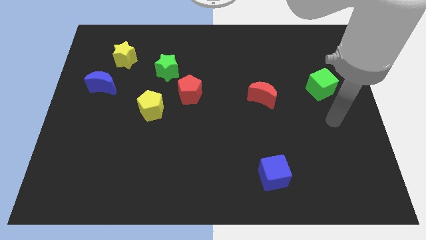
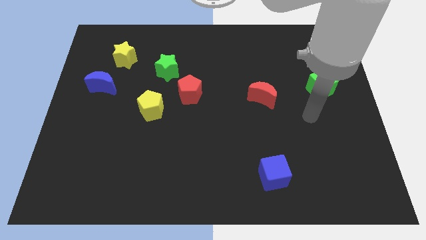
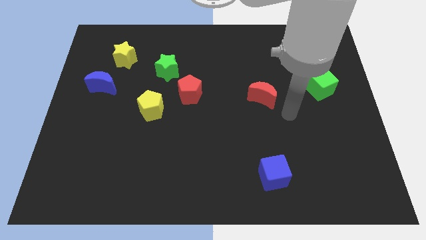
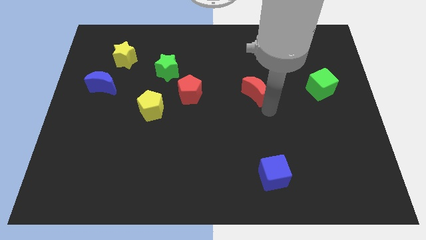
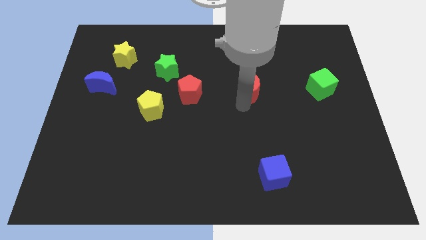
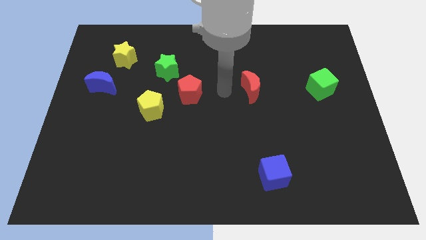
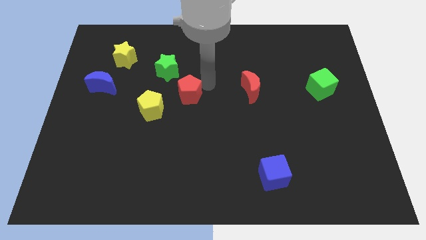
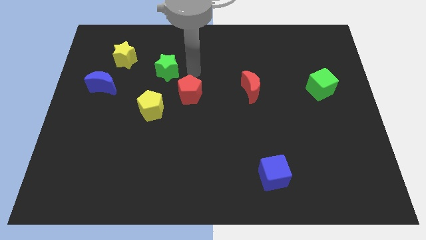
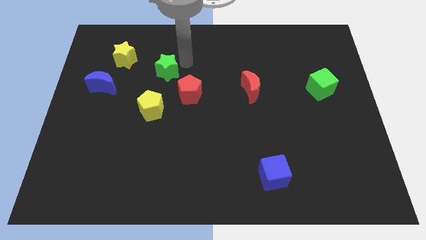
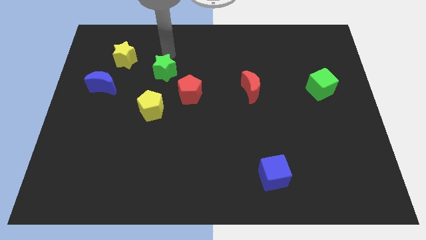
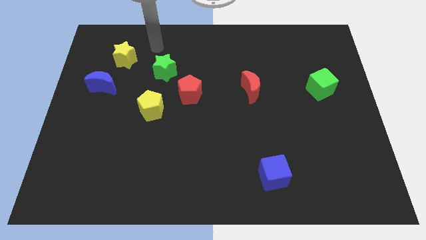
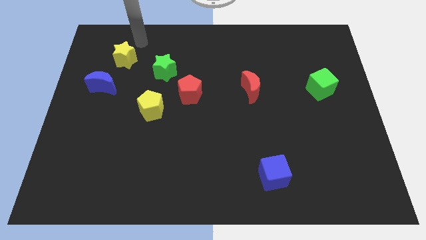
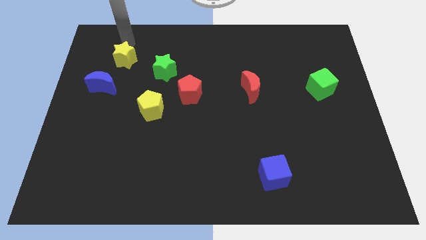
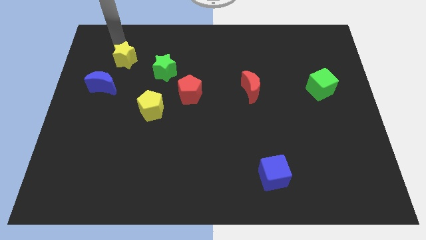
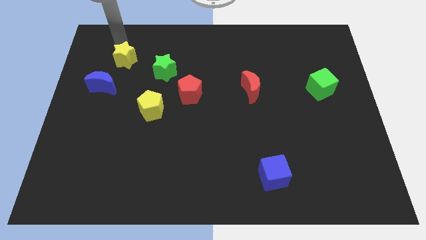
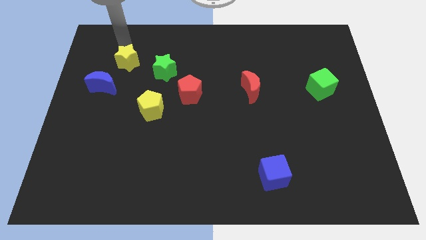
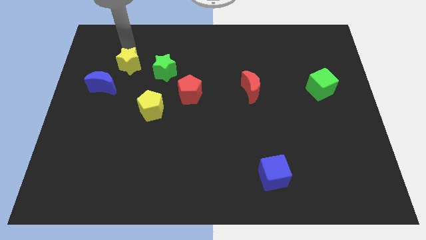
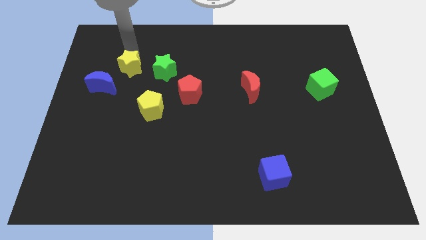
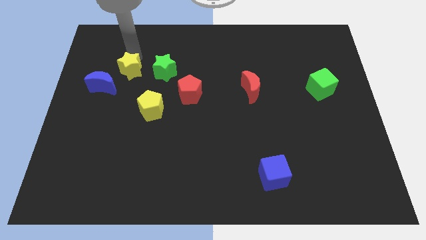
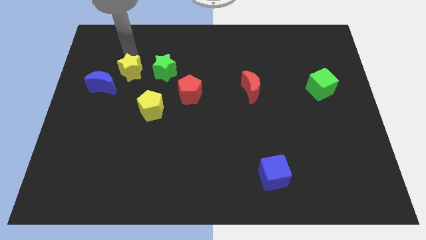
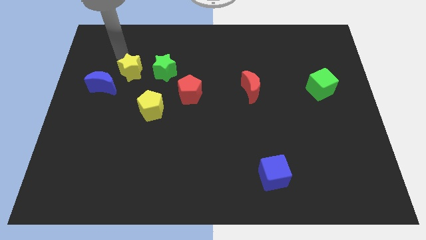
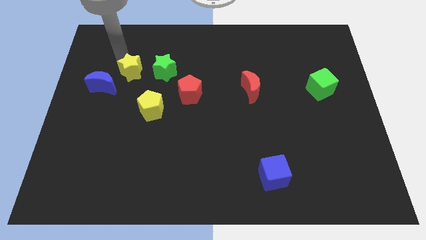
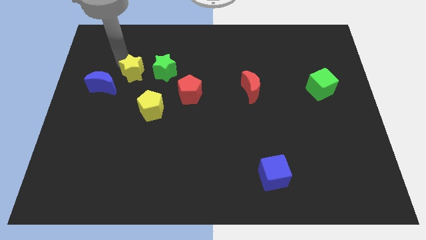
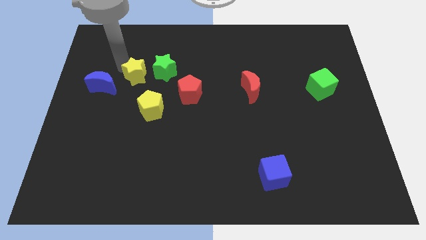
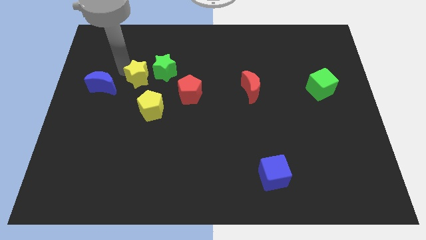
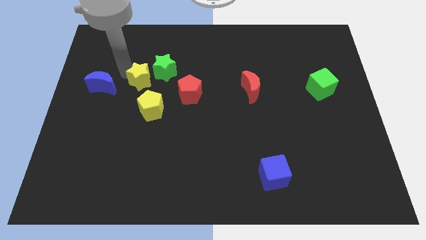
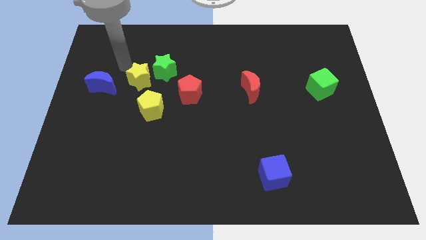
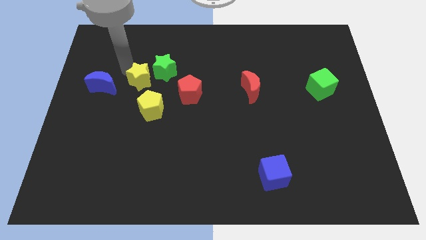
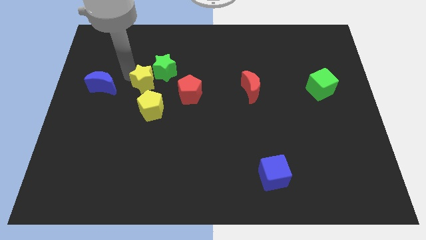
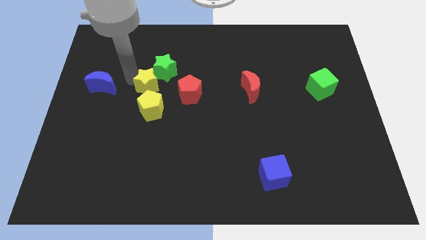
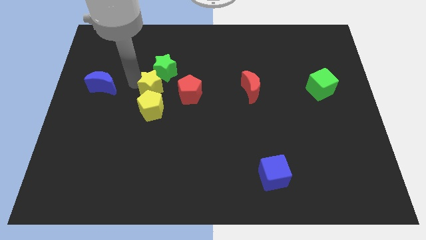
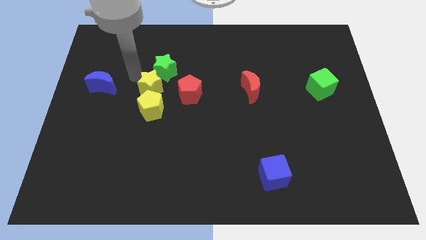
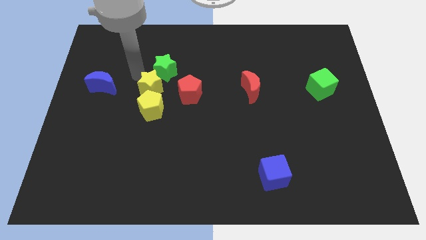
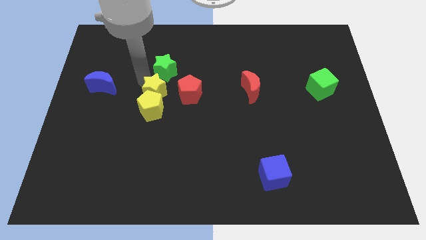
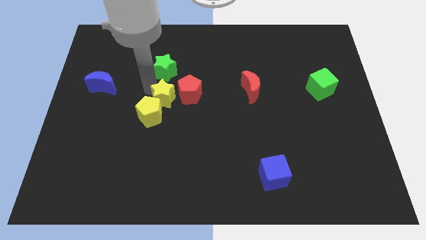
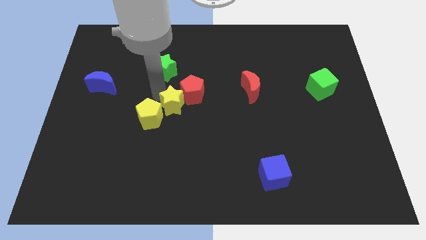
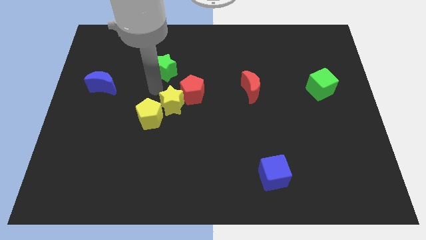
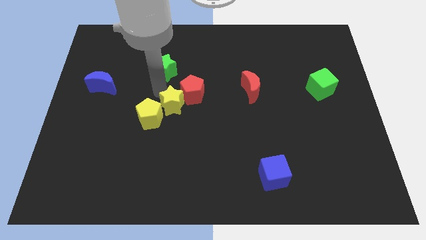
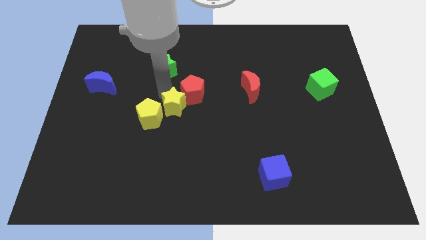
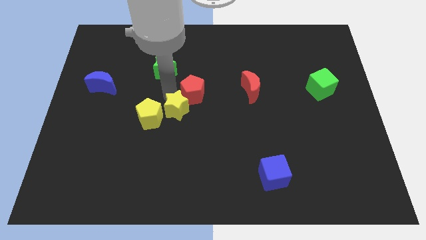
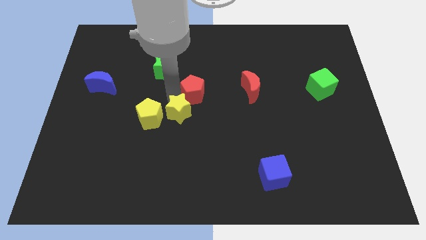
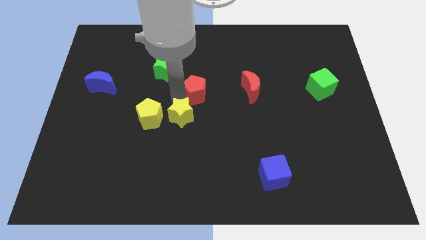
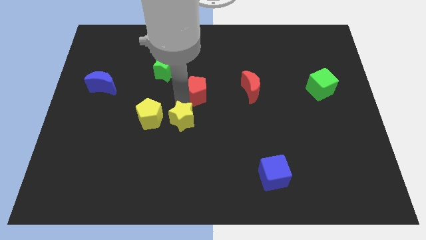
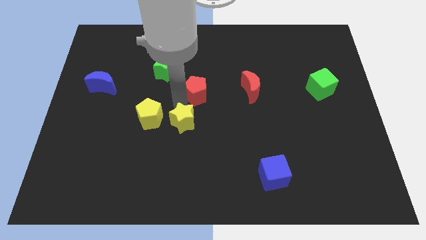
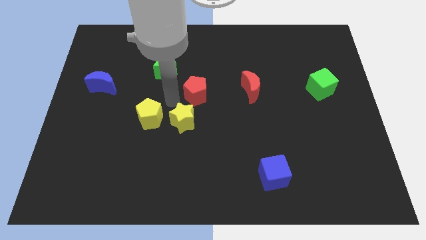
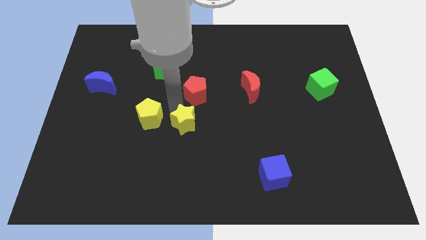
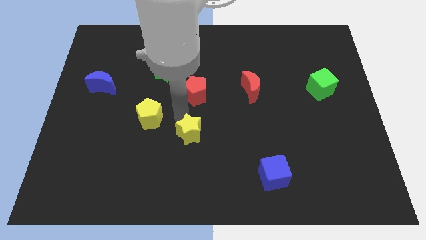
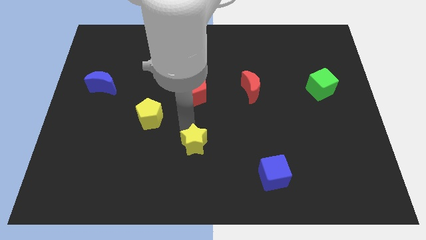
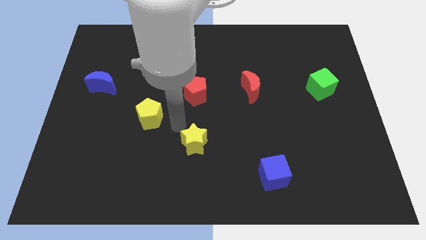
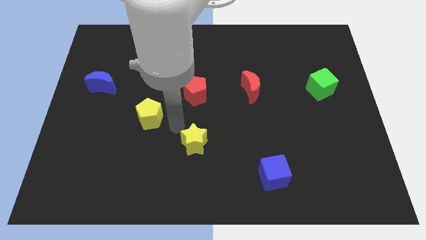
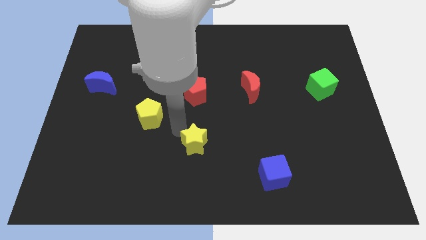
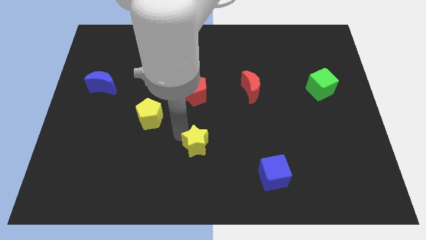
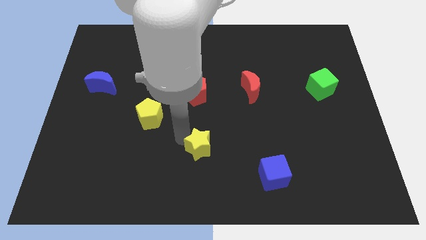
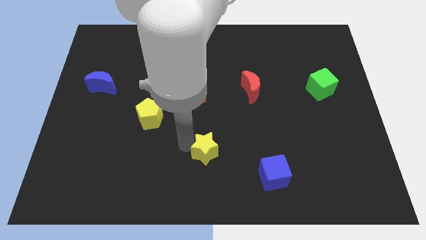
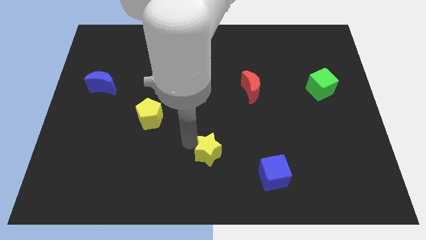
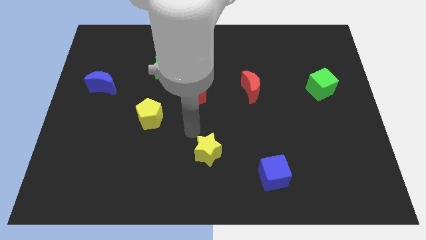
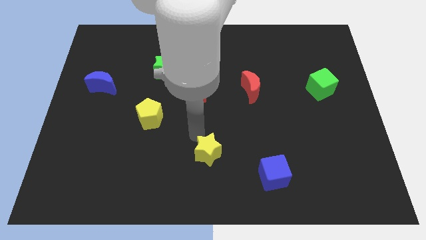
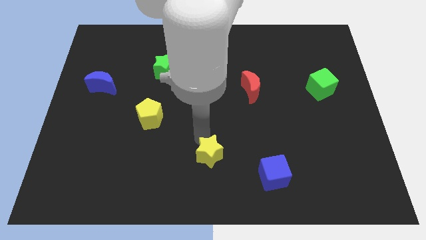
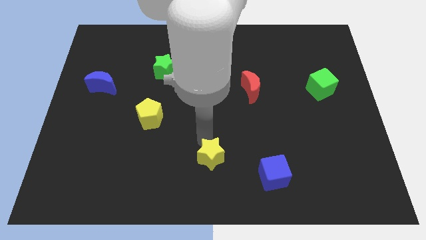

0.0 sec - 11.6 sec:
put the yellow star left of the blue cube

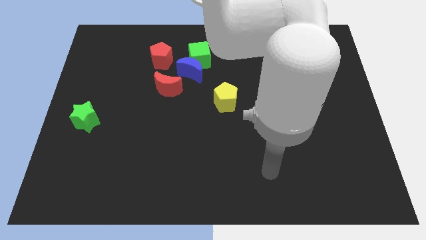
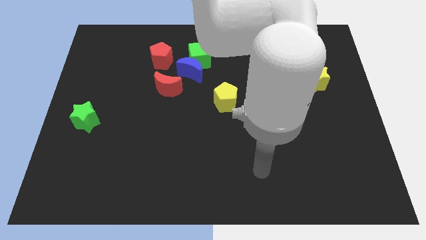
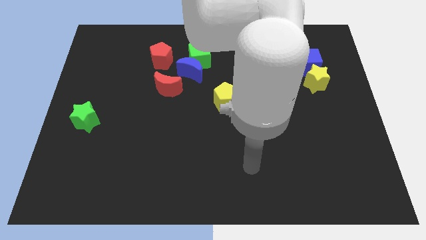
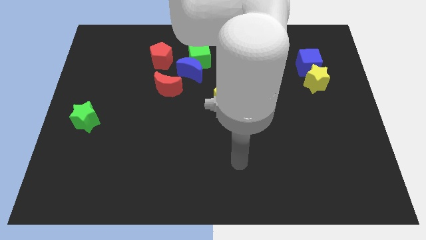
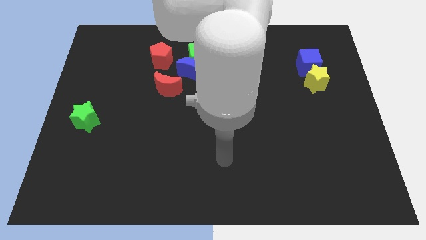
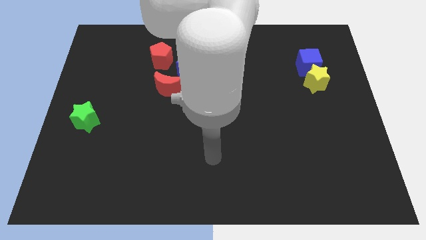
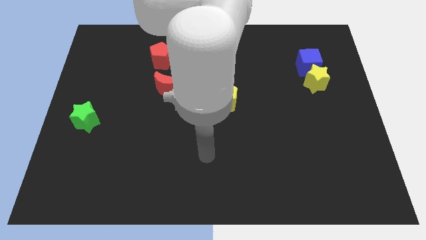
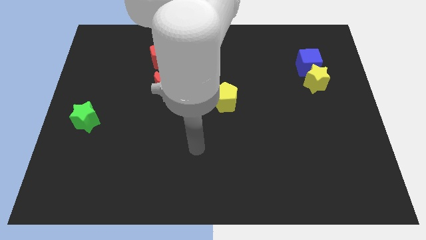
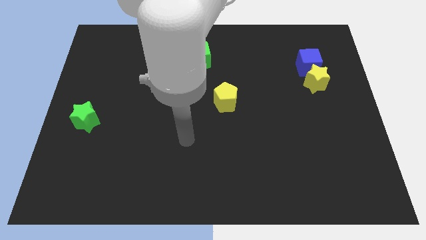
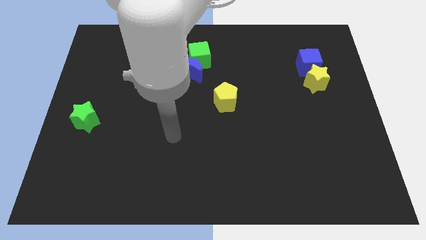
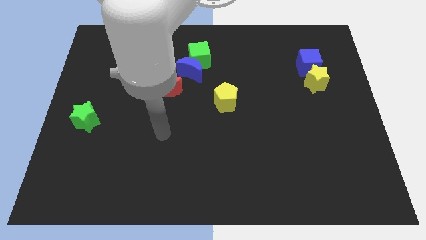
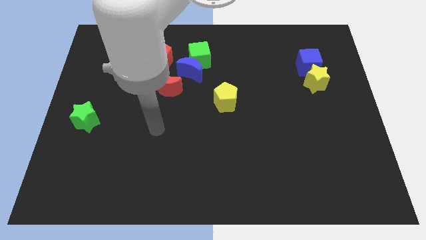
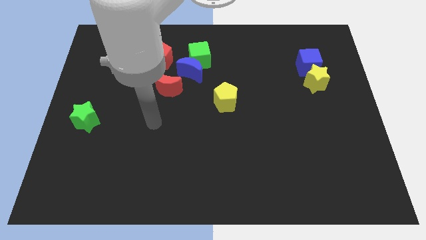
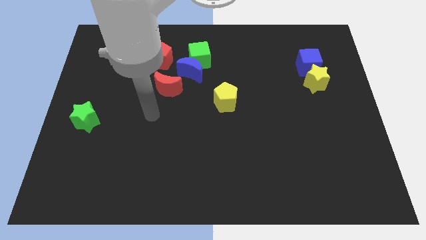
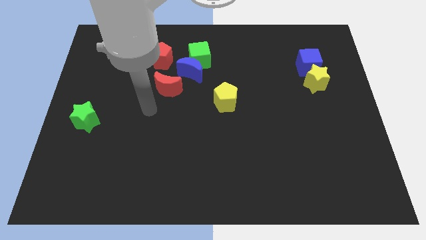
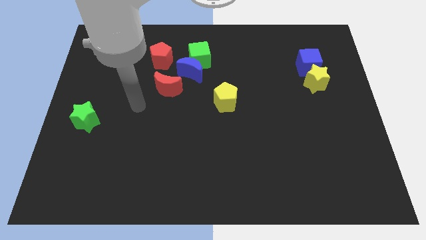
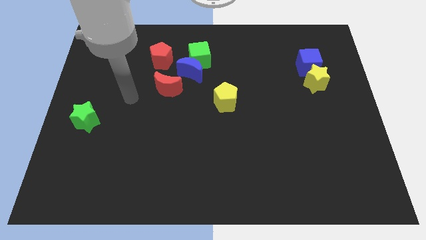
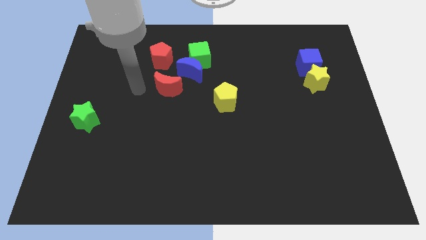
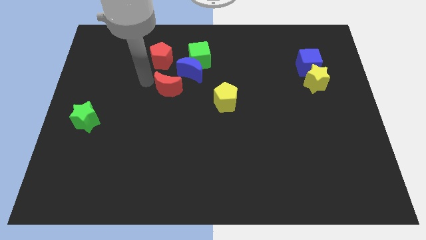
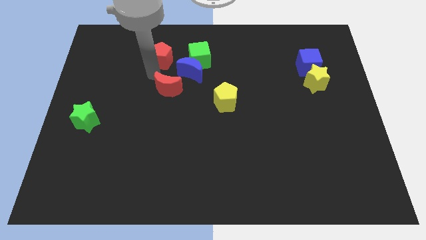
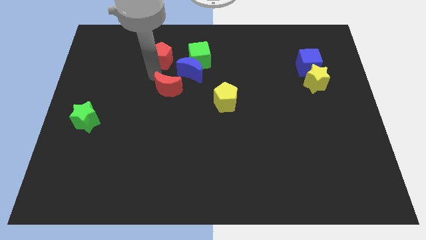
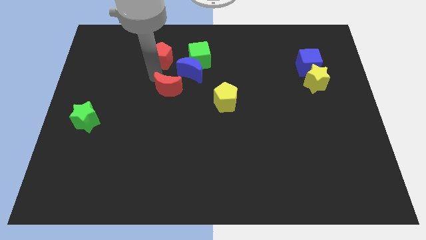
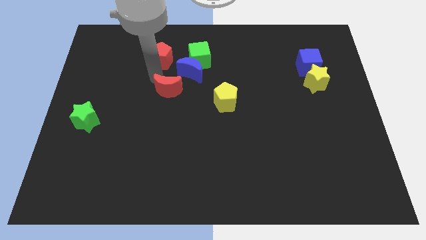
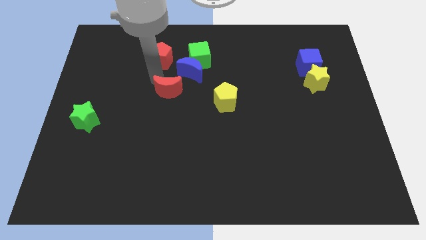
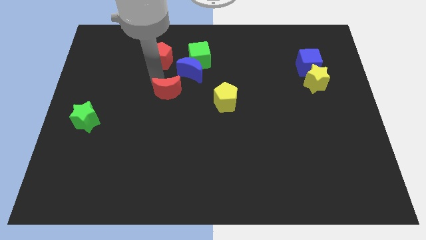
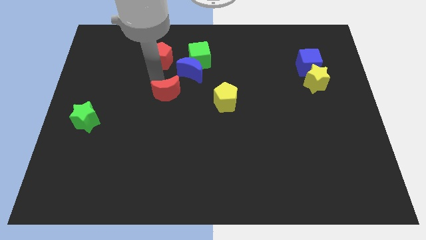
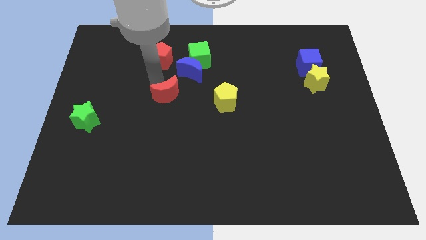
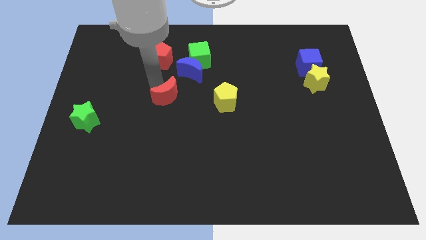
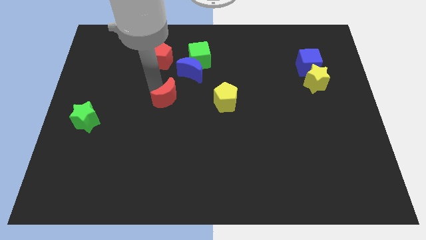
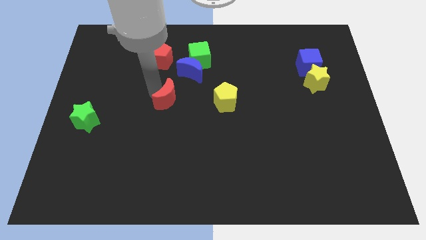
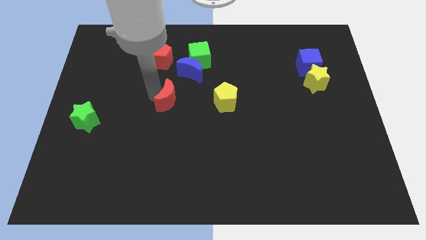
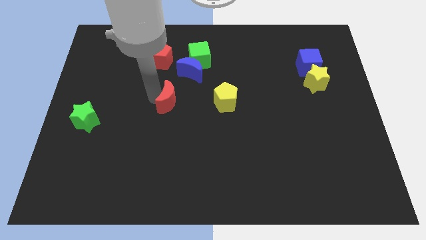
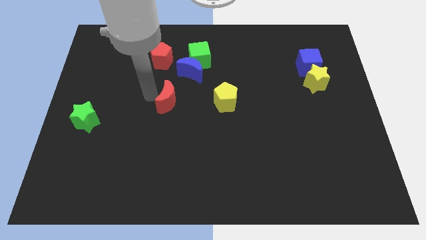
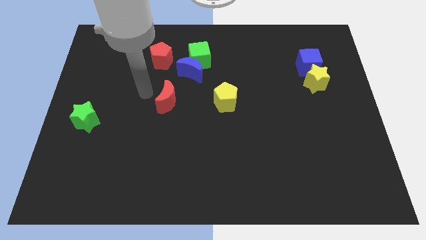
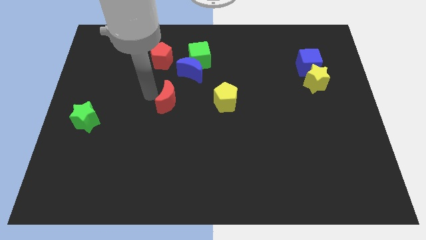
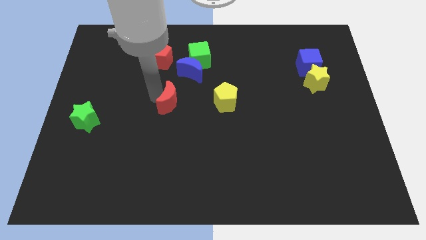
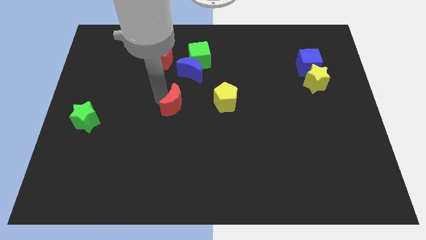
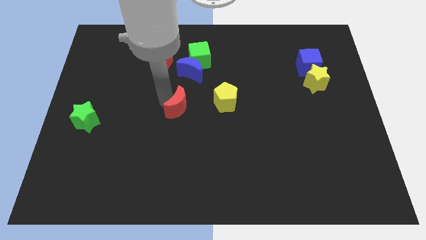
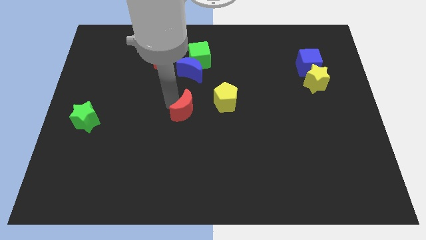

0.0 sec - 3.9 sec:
put the red moon diagonally down and to the left of the yellow pentagon
